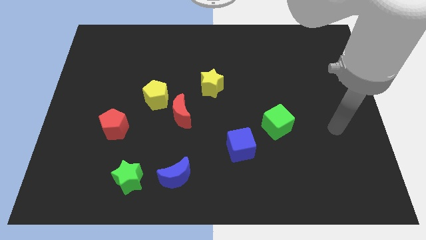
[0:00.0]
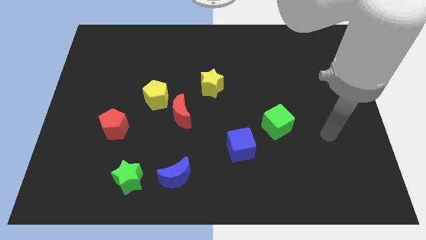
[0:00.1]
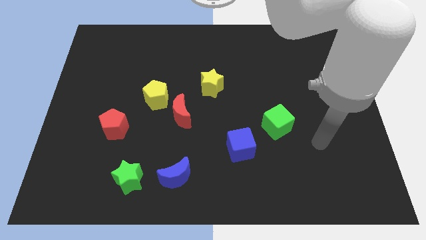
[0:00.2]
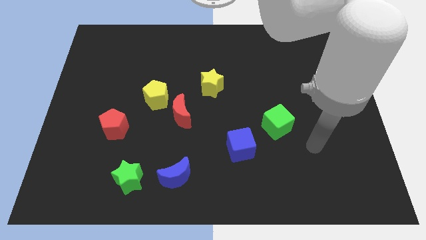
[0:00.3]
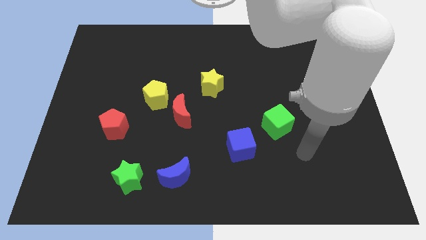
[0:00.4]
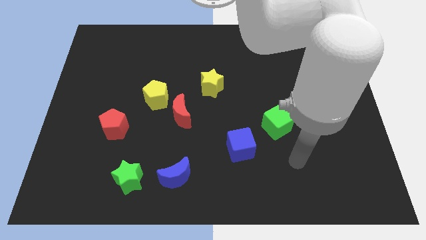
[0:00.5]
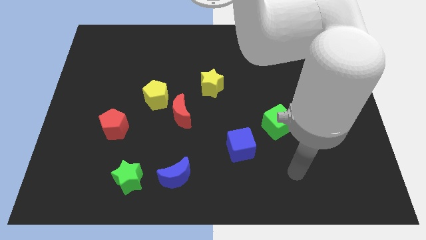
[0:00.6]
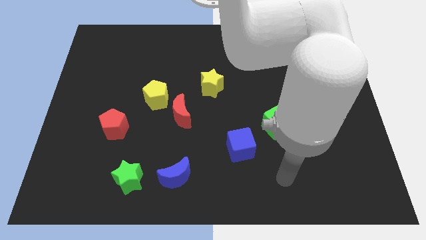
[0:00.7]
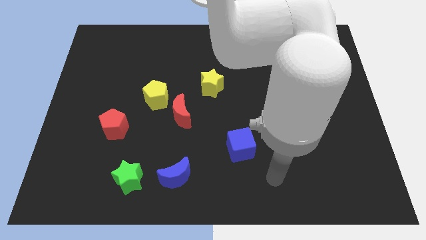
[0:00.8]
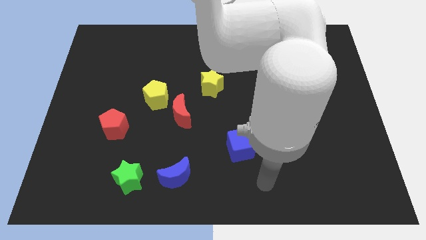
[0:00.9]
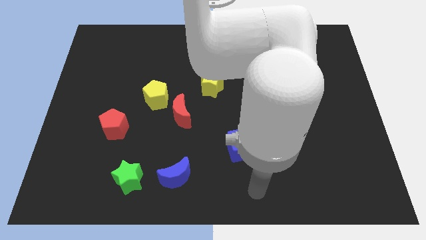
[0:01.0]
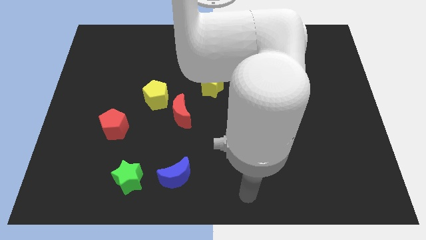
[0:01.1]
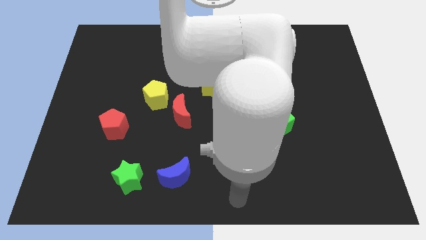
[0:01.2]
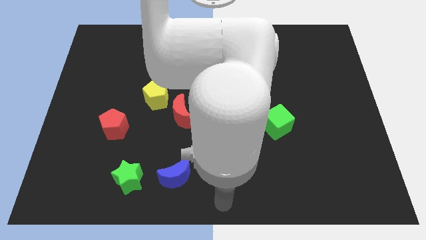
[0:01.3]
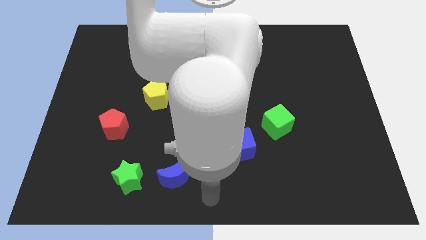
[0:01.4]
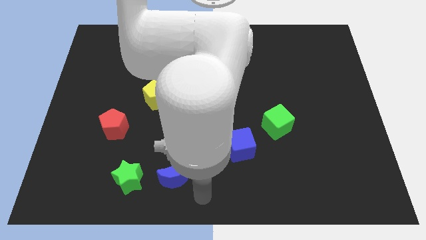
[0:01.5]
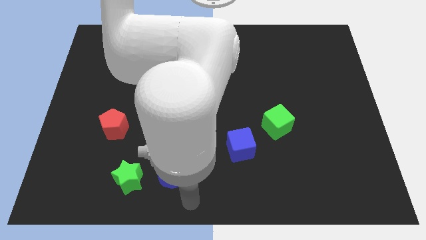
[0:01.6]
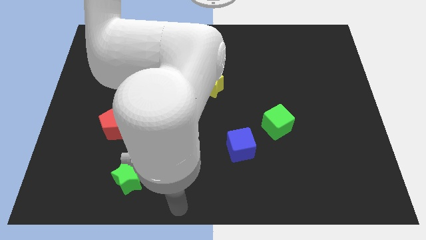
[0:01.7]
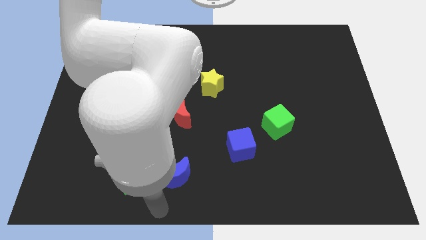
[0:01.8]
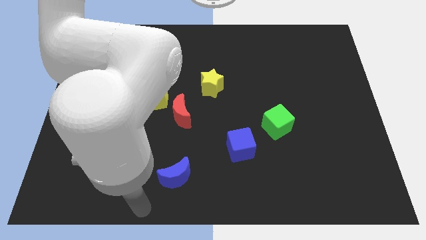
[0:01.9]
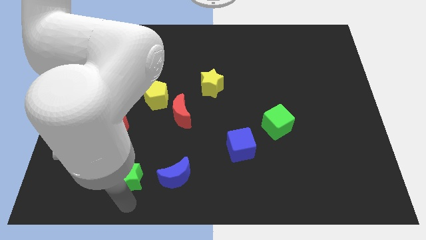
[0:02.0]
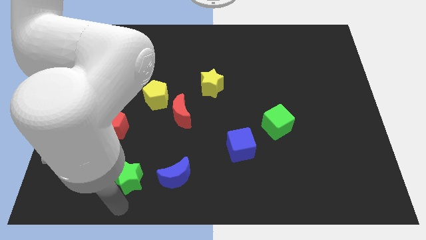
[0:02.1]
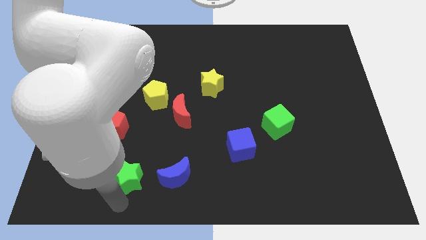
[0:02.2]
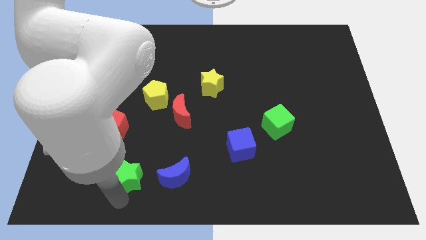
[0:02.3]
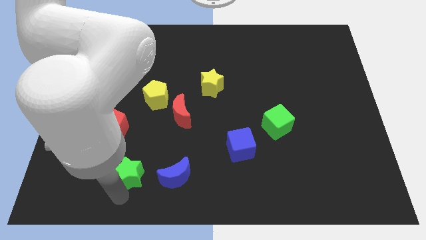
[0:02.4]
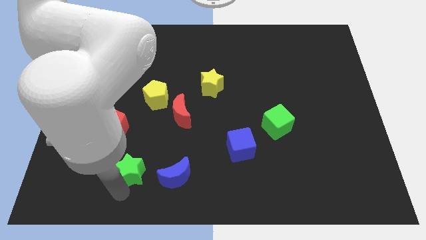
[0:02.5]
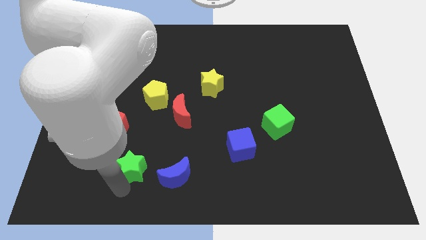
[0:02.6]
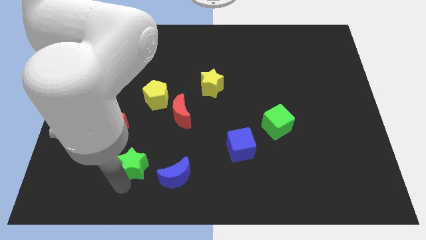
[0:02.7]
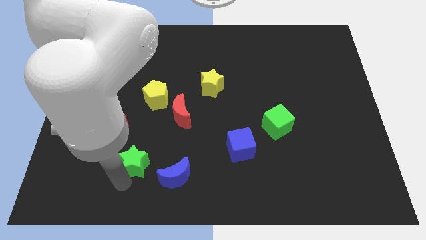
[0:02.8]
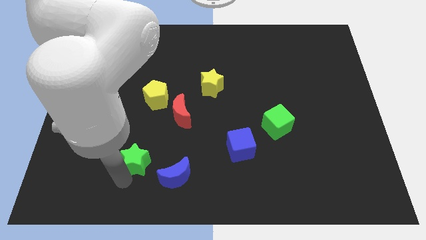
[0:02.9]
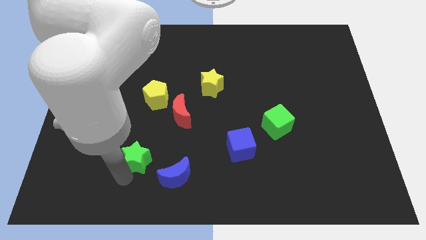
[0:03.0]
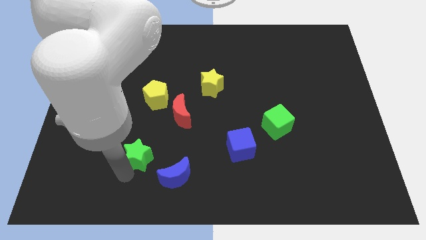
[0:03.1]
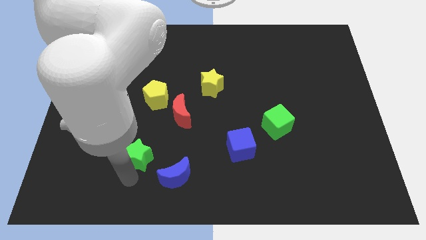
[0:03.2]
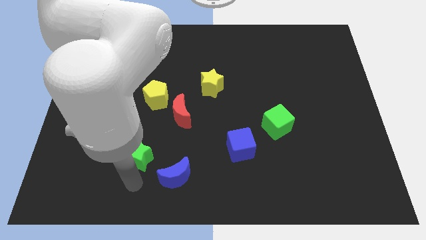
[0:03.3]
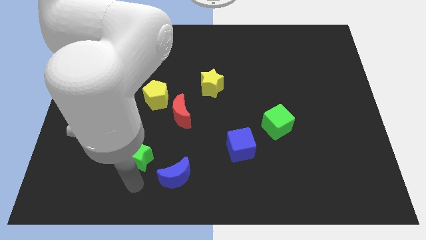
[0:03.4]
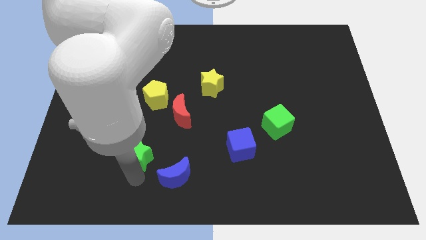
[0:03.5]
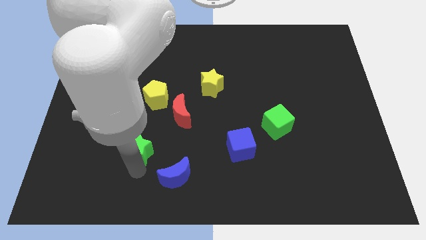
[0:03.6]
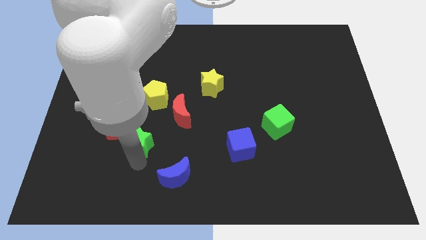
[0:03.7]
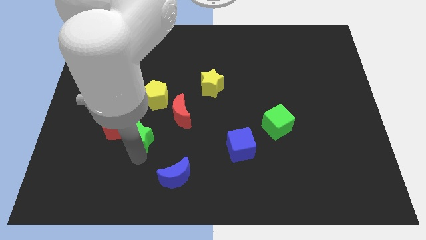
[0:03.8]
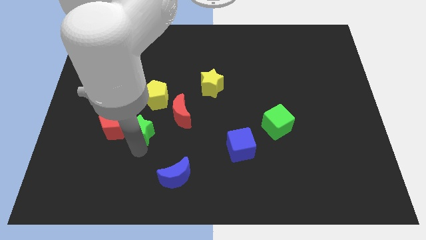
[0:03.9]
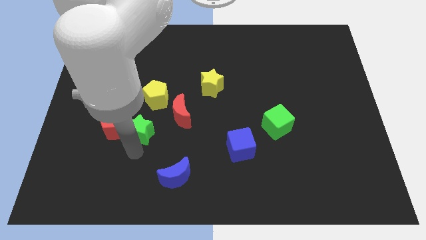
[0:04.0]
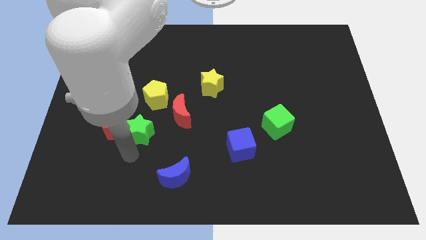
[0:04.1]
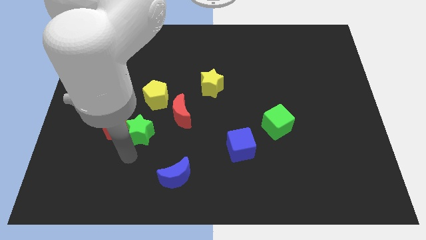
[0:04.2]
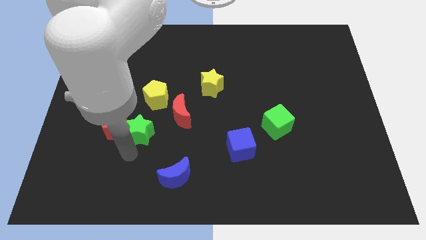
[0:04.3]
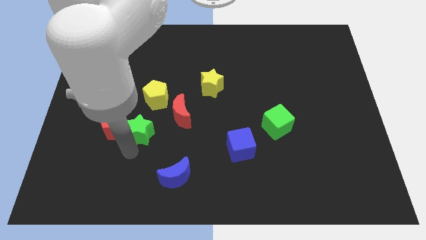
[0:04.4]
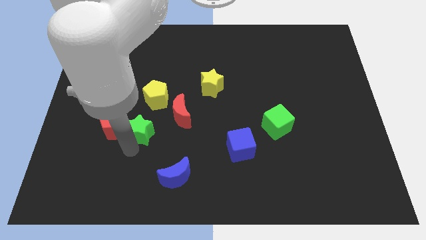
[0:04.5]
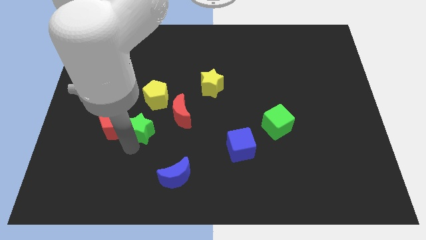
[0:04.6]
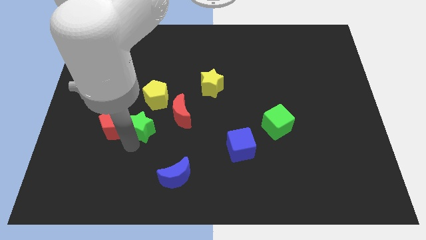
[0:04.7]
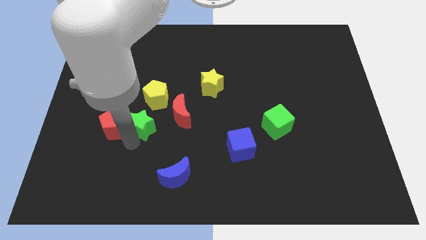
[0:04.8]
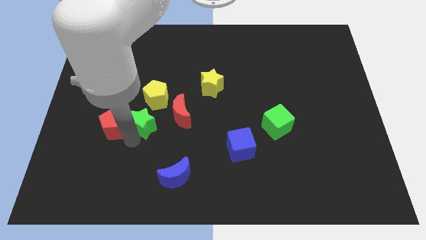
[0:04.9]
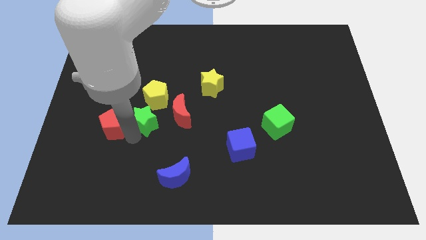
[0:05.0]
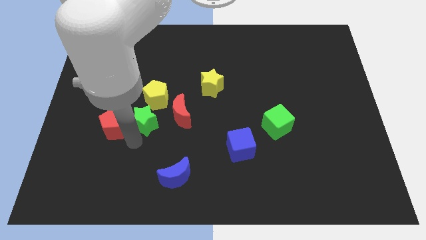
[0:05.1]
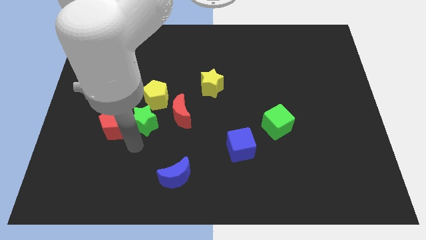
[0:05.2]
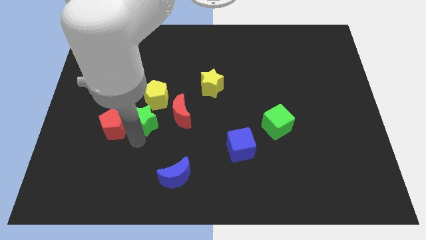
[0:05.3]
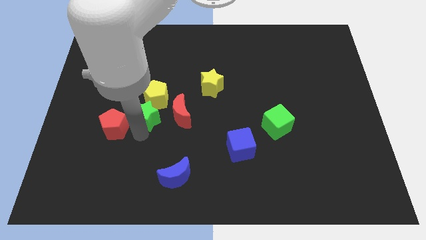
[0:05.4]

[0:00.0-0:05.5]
push the green star towards the yellow pentagon

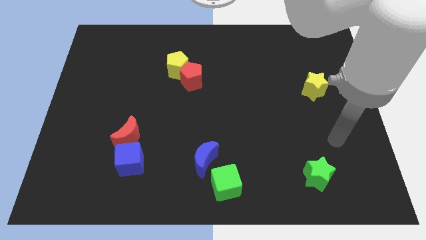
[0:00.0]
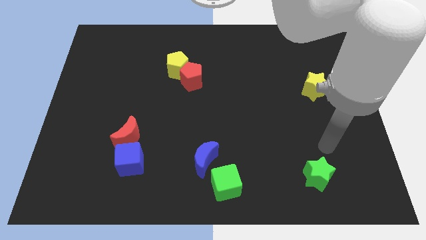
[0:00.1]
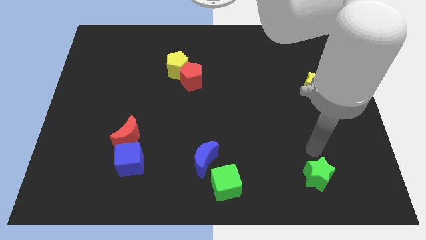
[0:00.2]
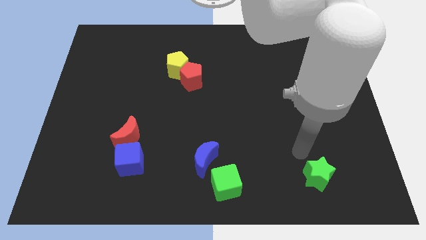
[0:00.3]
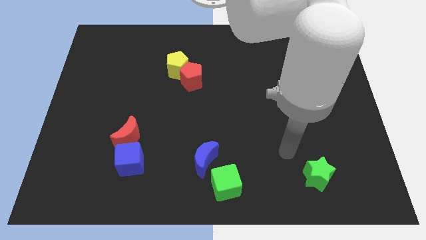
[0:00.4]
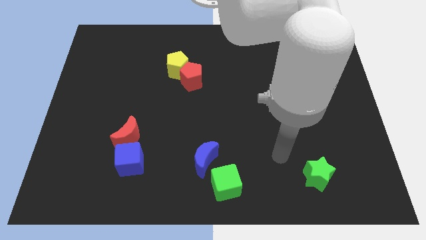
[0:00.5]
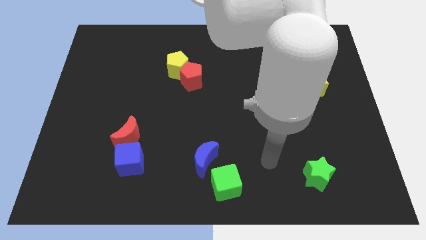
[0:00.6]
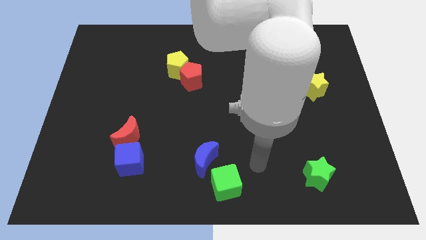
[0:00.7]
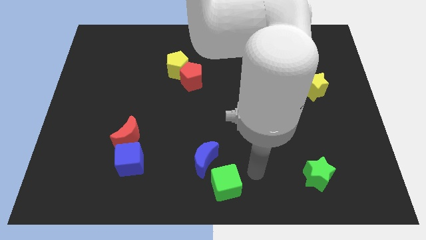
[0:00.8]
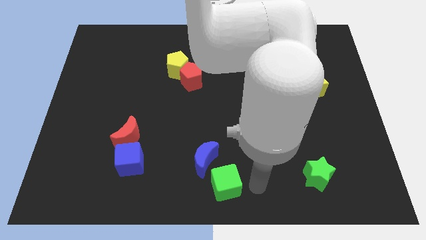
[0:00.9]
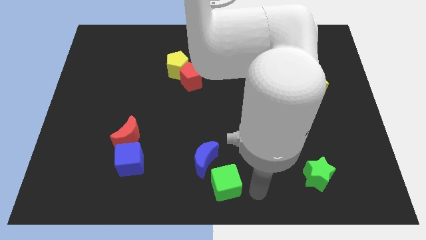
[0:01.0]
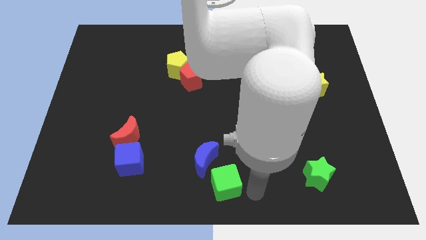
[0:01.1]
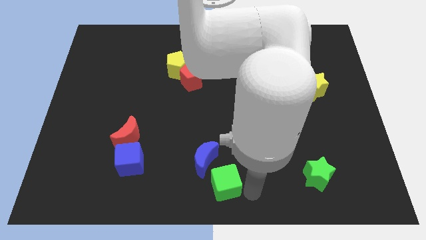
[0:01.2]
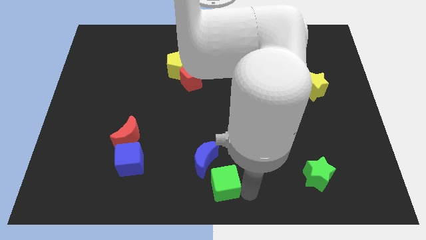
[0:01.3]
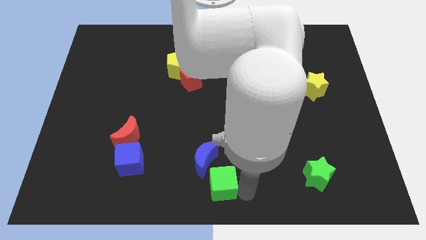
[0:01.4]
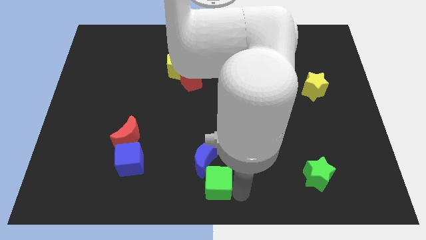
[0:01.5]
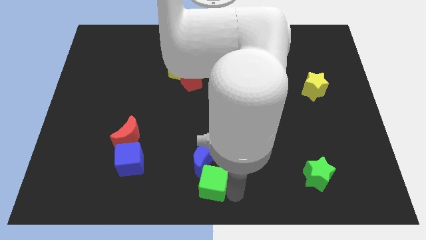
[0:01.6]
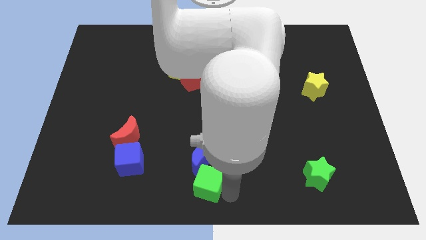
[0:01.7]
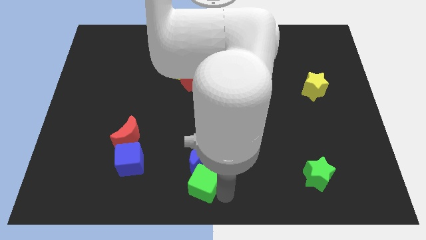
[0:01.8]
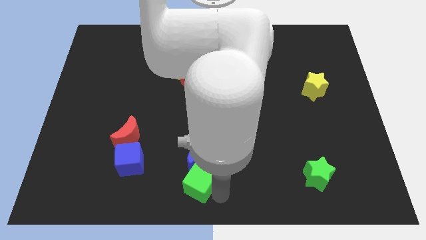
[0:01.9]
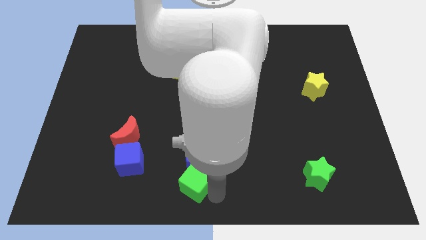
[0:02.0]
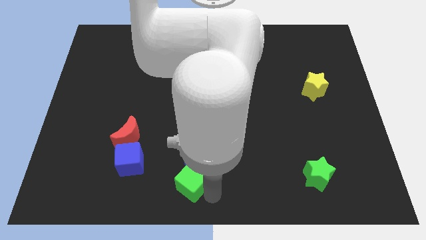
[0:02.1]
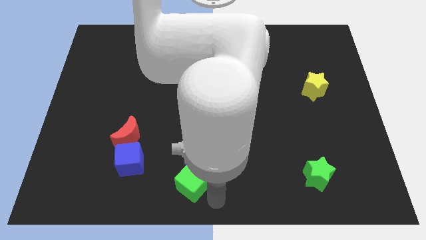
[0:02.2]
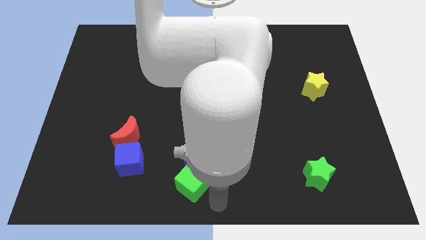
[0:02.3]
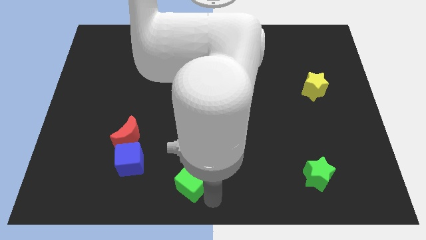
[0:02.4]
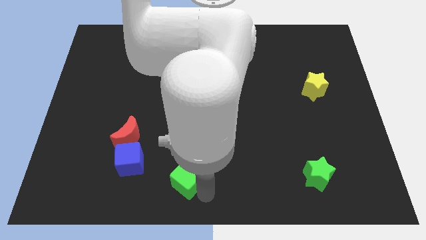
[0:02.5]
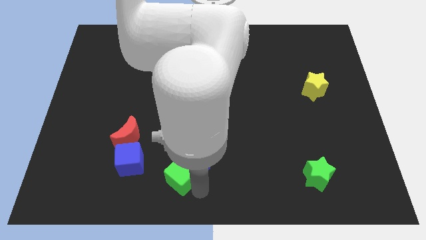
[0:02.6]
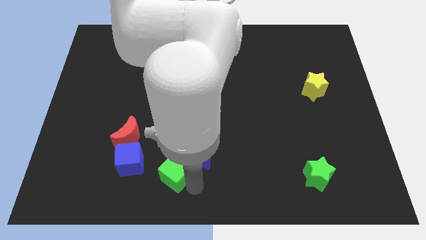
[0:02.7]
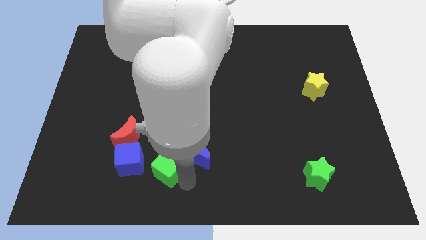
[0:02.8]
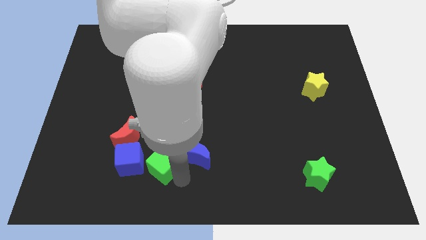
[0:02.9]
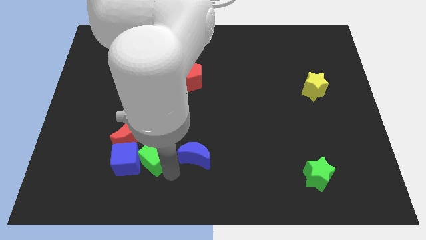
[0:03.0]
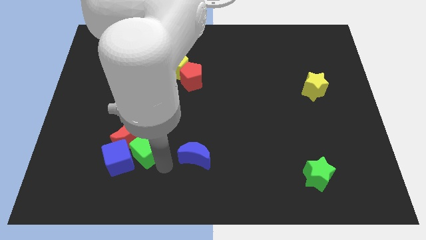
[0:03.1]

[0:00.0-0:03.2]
move the green cube towards the red moon
